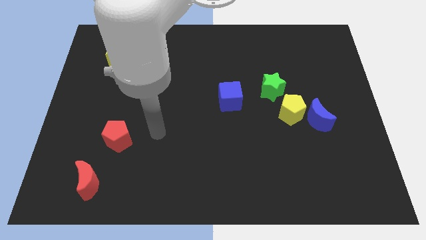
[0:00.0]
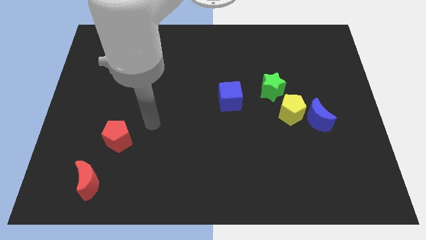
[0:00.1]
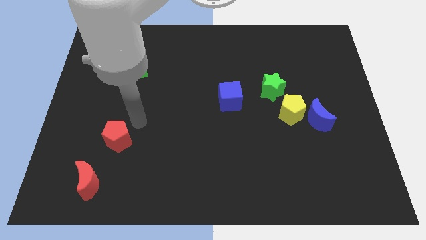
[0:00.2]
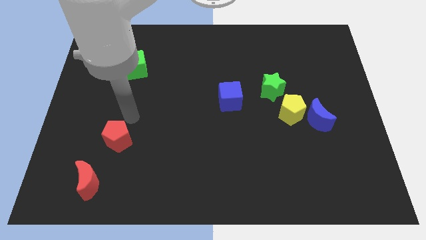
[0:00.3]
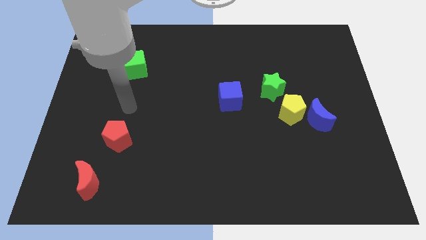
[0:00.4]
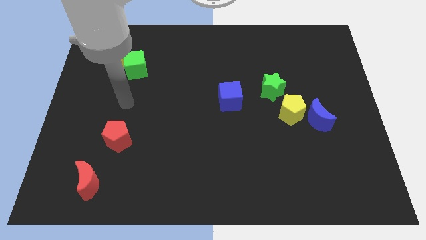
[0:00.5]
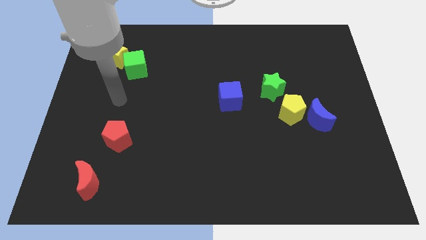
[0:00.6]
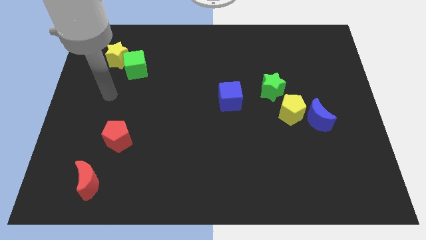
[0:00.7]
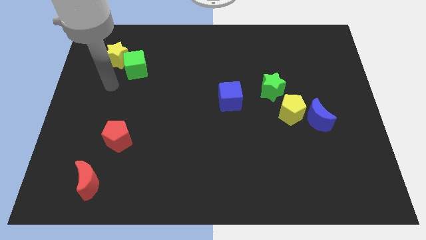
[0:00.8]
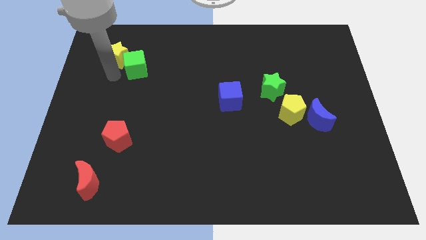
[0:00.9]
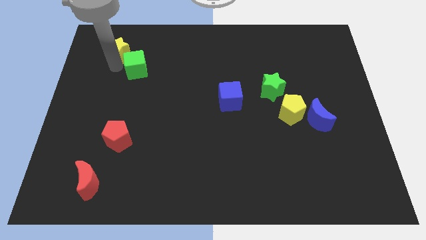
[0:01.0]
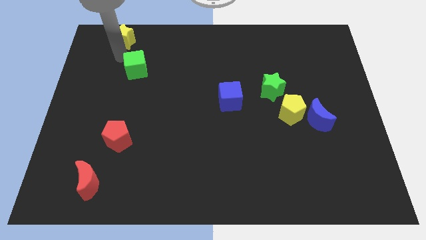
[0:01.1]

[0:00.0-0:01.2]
separate the green cube from the yellow star

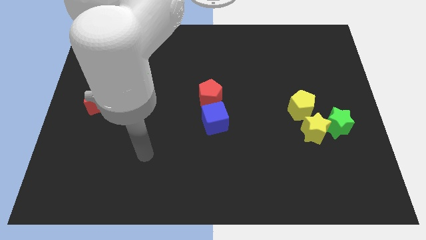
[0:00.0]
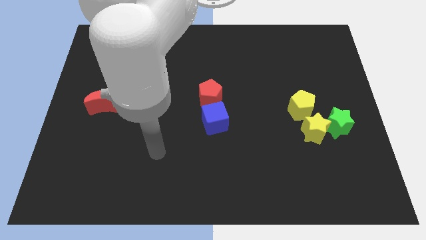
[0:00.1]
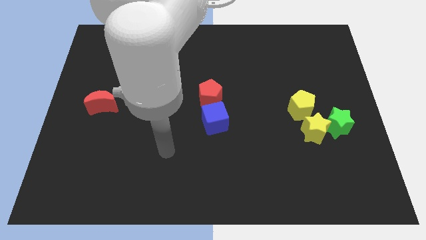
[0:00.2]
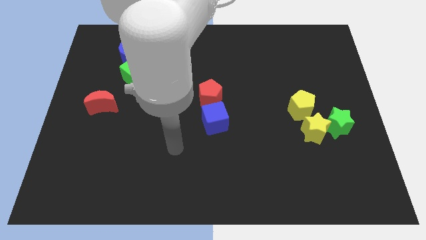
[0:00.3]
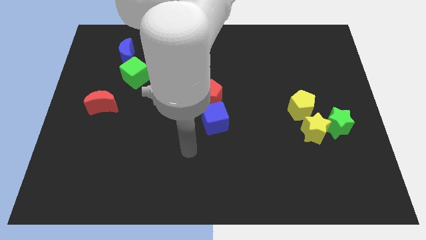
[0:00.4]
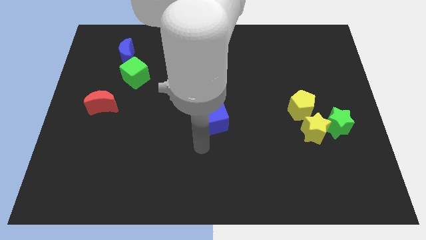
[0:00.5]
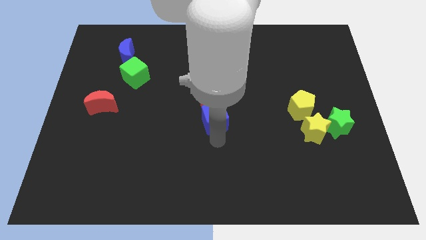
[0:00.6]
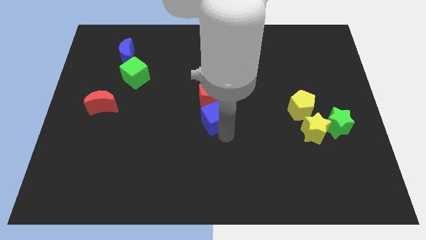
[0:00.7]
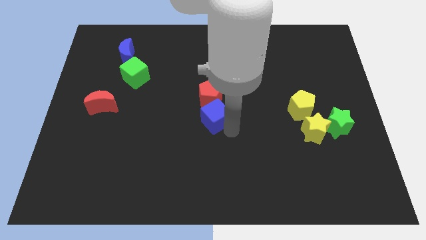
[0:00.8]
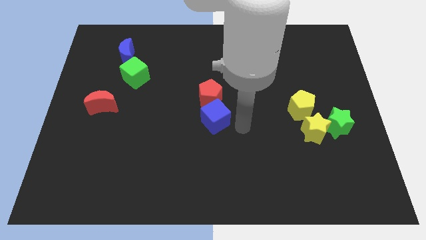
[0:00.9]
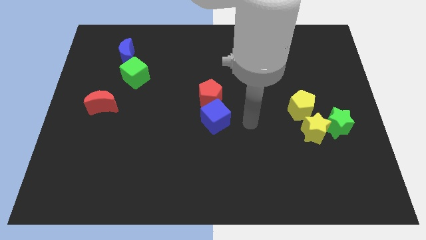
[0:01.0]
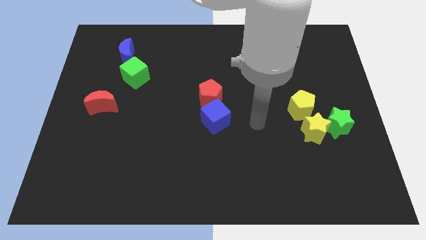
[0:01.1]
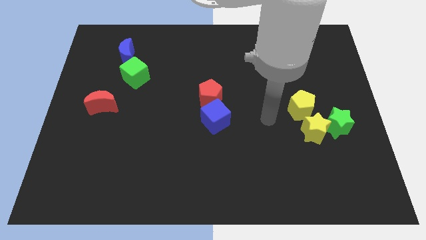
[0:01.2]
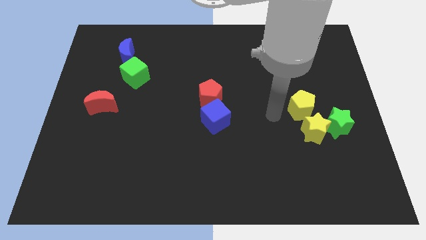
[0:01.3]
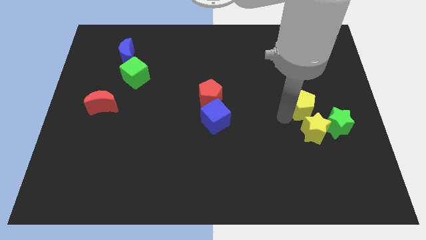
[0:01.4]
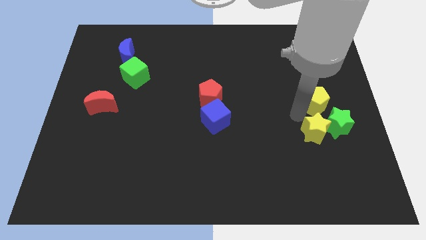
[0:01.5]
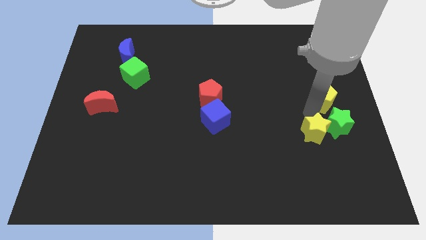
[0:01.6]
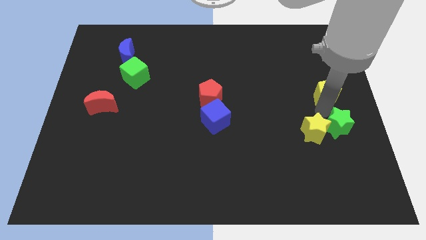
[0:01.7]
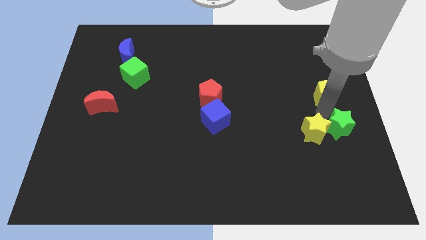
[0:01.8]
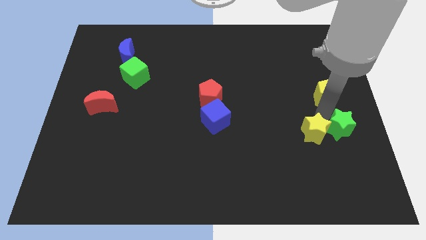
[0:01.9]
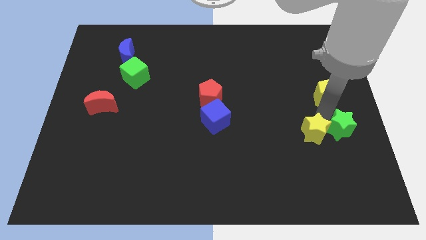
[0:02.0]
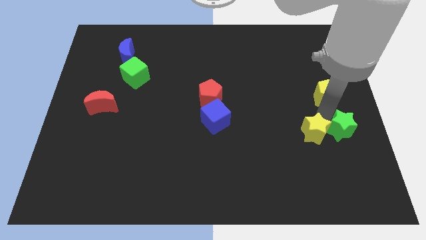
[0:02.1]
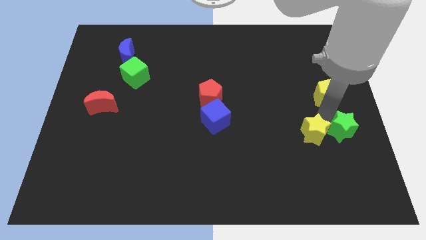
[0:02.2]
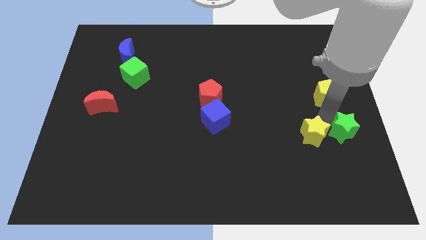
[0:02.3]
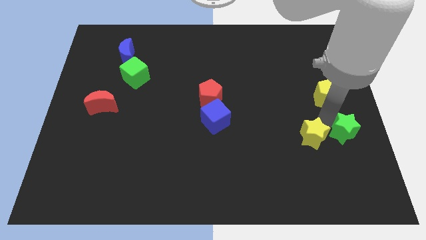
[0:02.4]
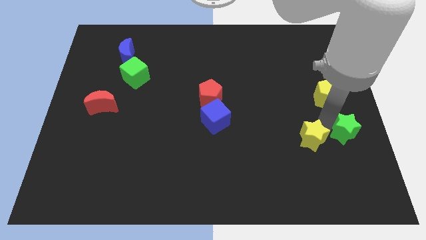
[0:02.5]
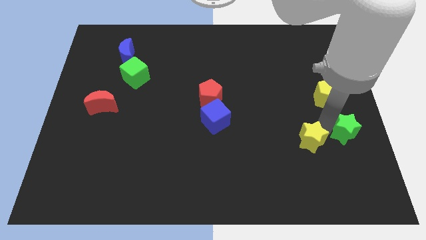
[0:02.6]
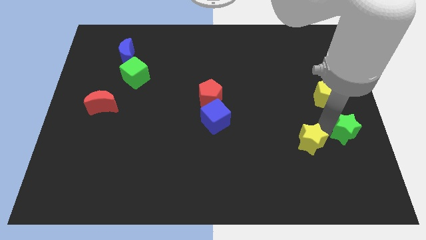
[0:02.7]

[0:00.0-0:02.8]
pull the yellow star apart from the green star and yellow pentagon

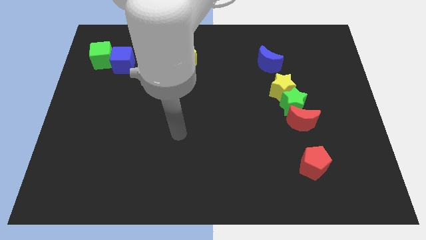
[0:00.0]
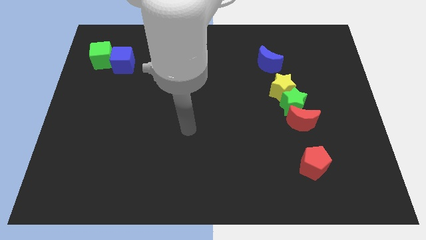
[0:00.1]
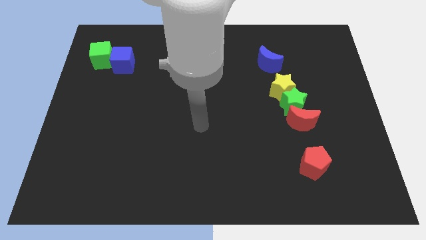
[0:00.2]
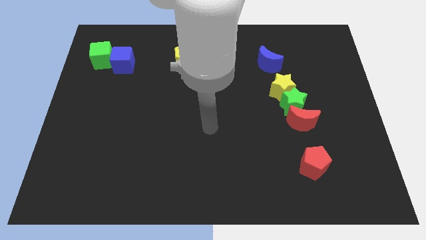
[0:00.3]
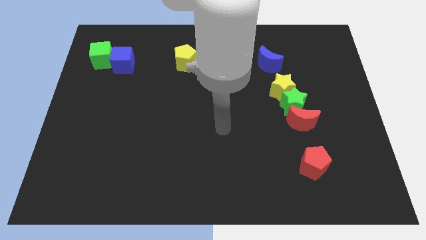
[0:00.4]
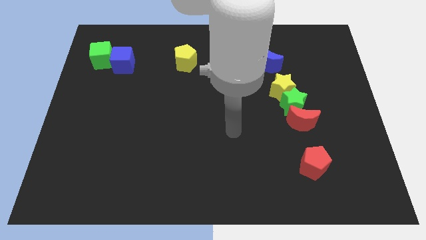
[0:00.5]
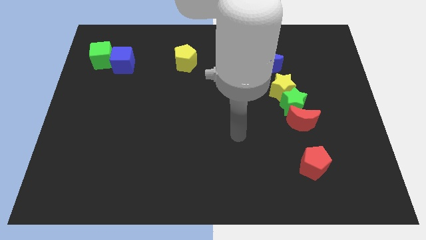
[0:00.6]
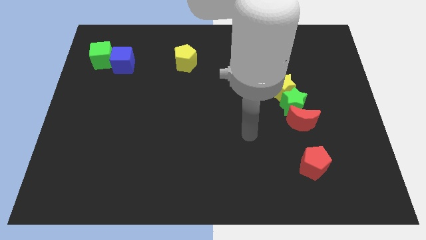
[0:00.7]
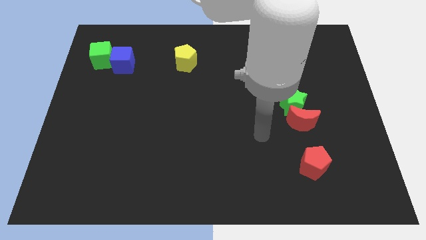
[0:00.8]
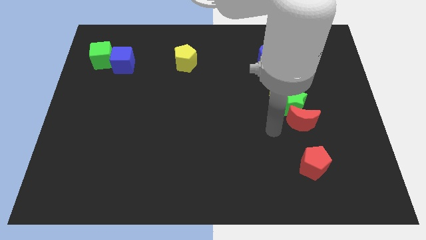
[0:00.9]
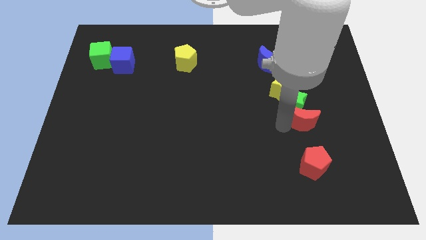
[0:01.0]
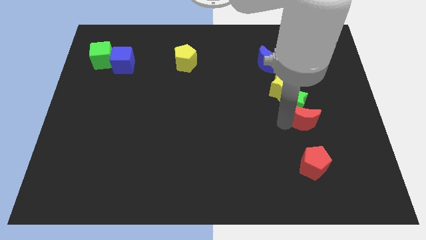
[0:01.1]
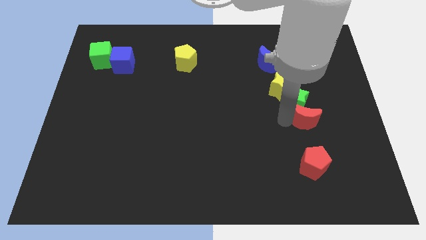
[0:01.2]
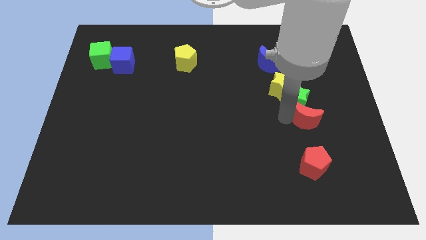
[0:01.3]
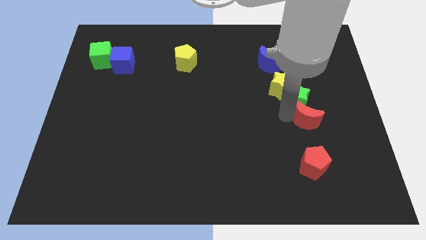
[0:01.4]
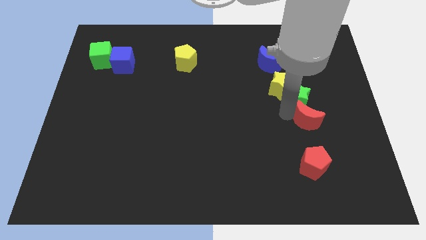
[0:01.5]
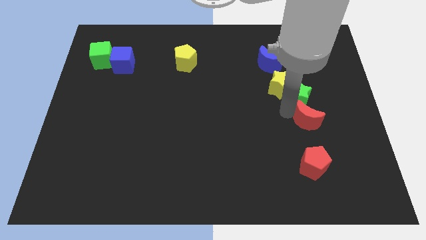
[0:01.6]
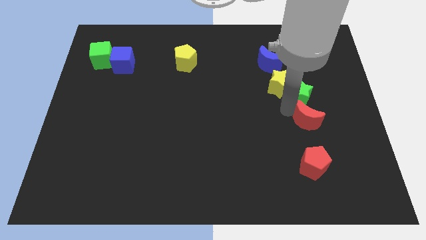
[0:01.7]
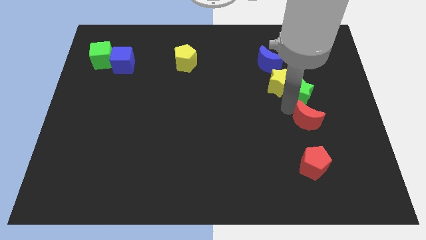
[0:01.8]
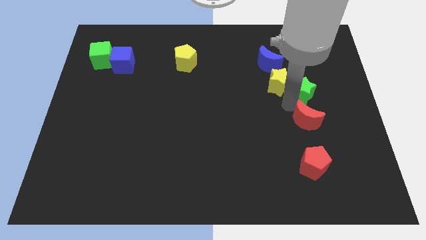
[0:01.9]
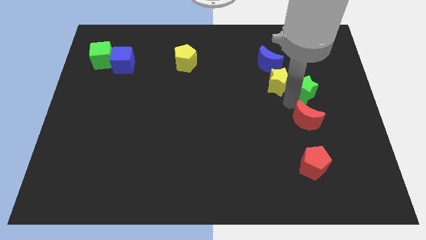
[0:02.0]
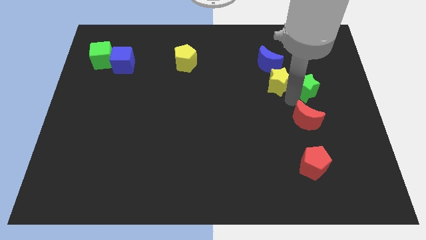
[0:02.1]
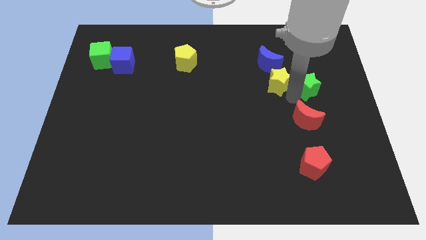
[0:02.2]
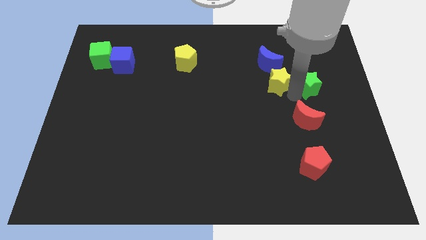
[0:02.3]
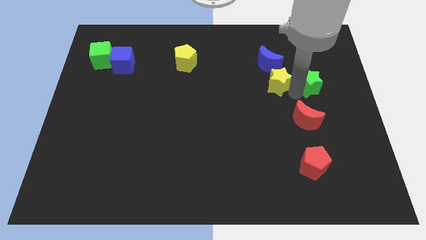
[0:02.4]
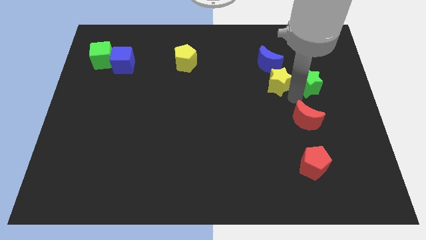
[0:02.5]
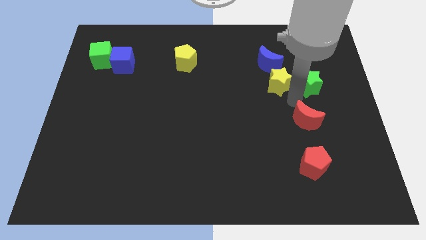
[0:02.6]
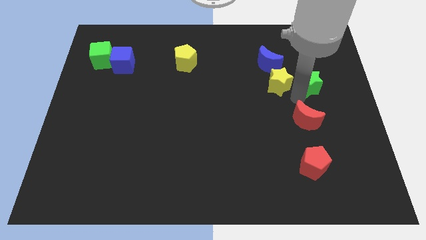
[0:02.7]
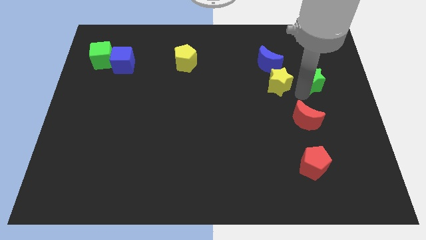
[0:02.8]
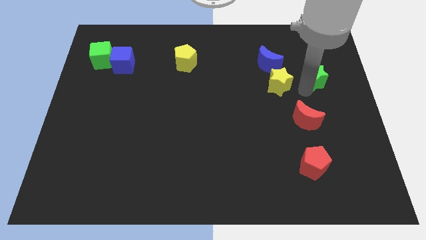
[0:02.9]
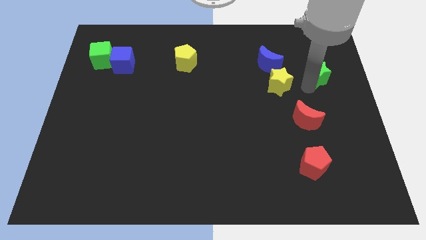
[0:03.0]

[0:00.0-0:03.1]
move the green star away from the yellow star and red moon

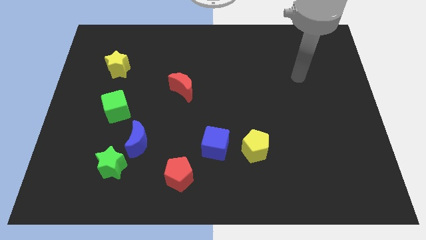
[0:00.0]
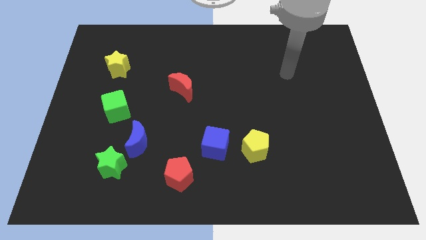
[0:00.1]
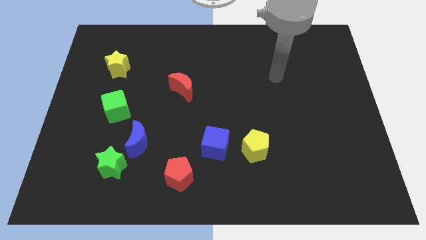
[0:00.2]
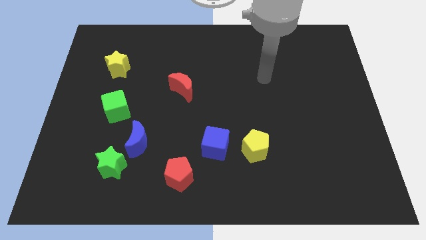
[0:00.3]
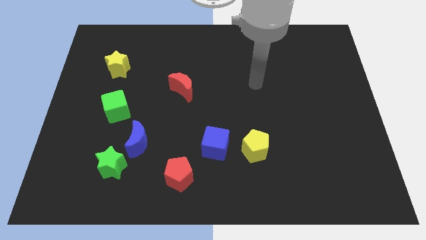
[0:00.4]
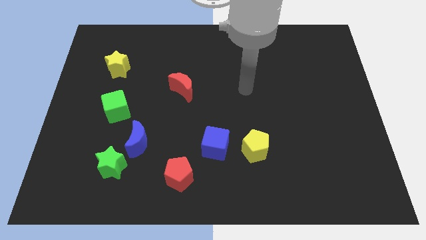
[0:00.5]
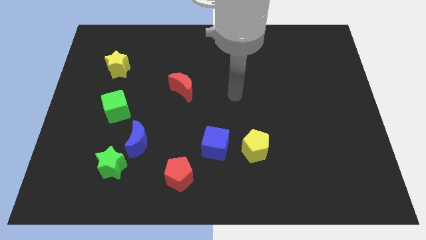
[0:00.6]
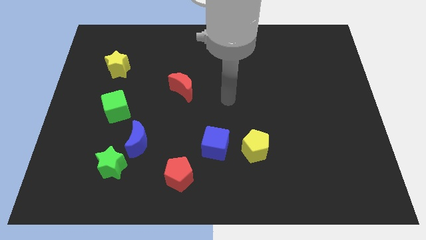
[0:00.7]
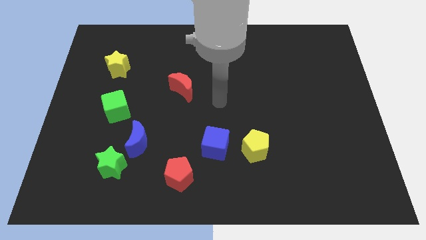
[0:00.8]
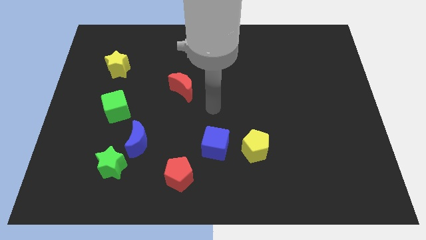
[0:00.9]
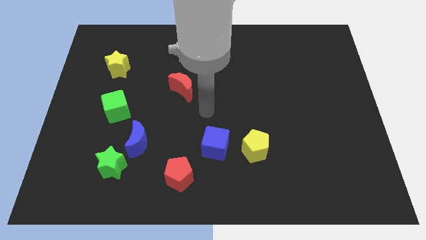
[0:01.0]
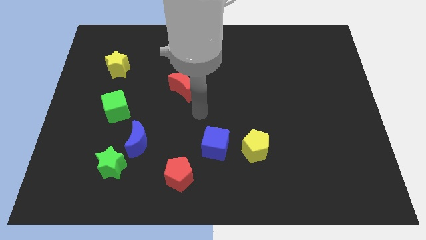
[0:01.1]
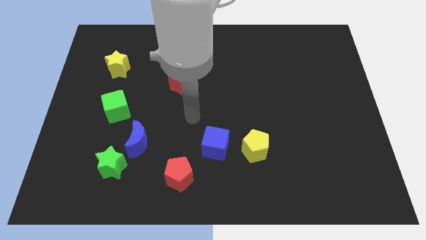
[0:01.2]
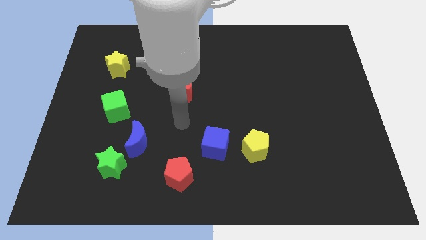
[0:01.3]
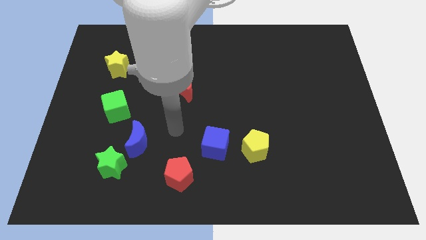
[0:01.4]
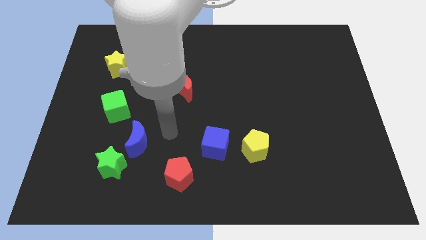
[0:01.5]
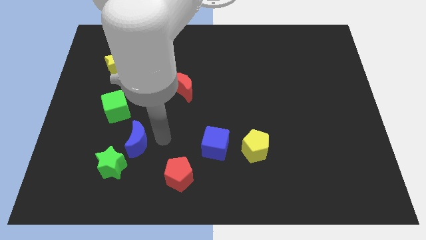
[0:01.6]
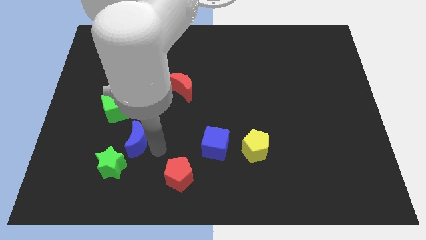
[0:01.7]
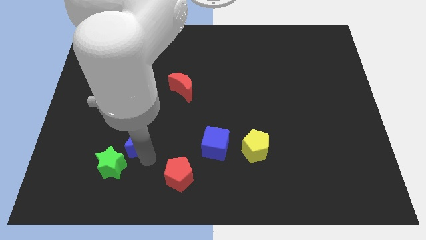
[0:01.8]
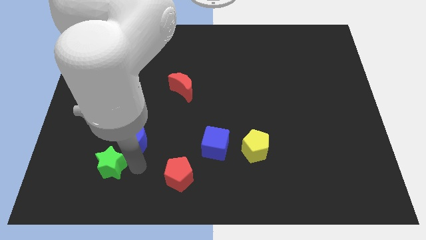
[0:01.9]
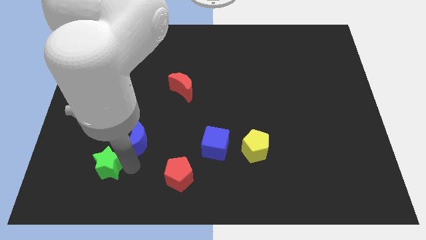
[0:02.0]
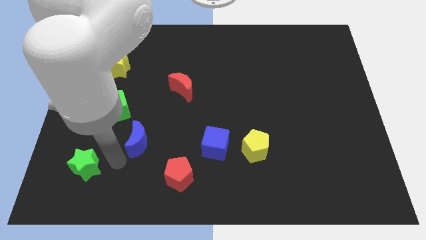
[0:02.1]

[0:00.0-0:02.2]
pull the blue moon apart from the green star
